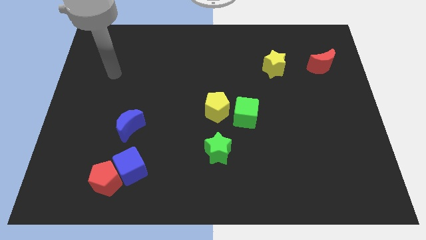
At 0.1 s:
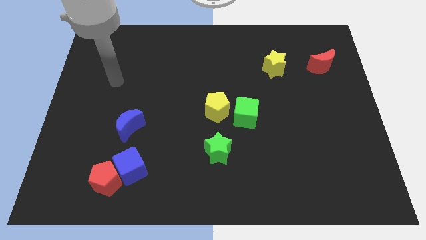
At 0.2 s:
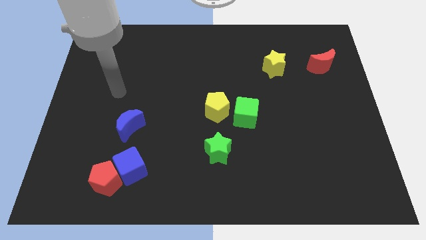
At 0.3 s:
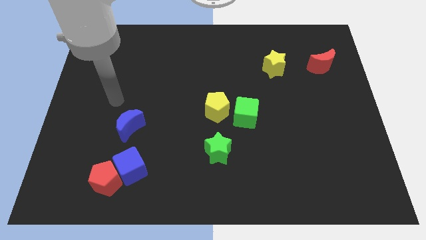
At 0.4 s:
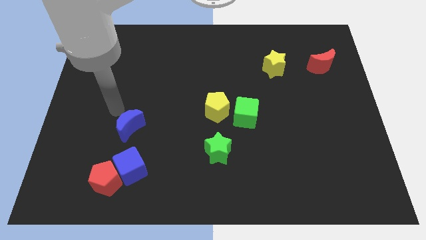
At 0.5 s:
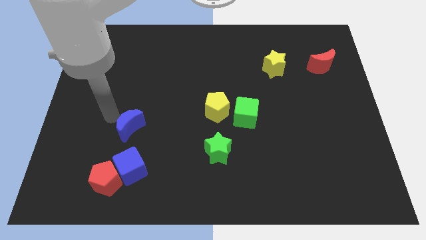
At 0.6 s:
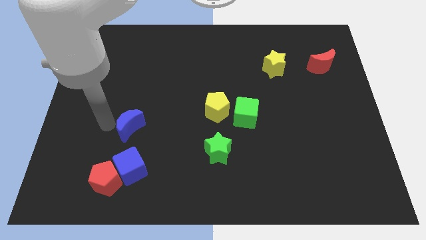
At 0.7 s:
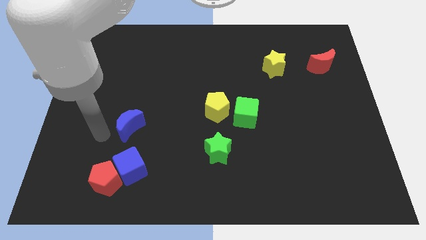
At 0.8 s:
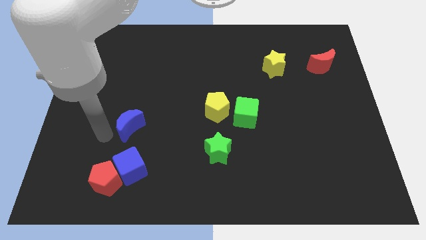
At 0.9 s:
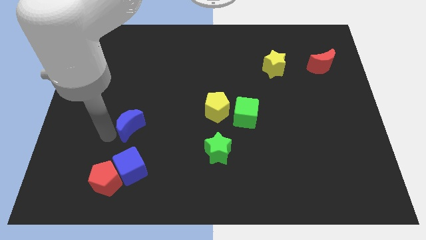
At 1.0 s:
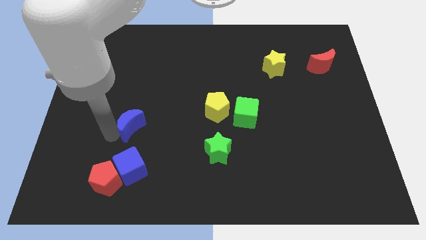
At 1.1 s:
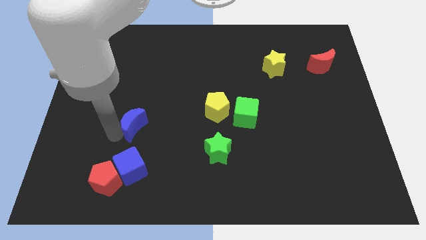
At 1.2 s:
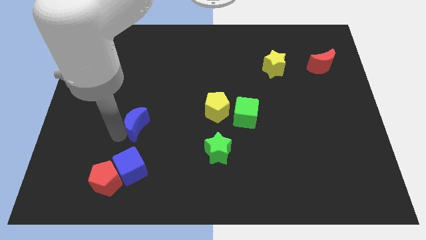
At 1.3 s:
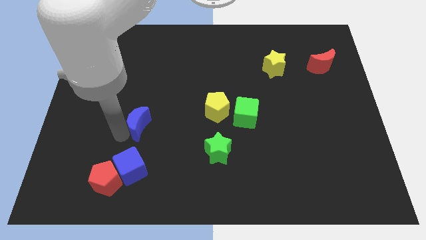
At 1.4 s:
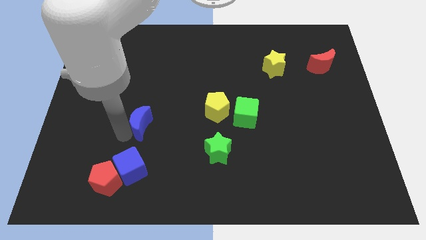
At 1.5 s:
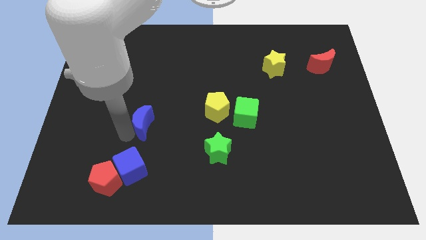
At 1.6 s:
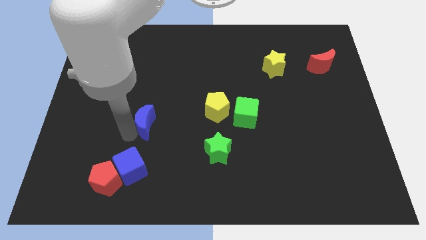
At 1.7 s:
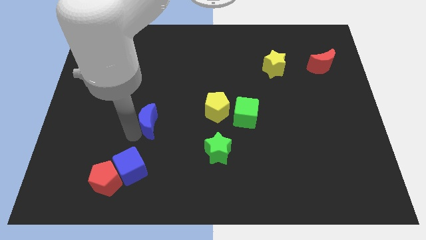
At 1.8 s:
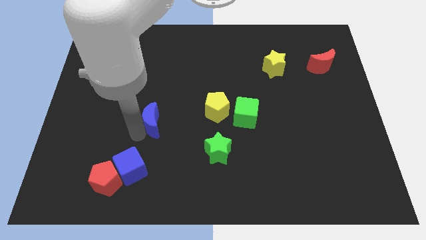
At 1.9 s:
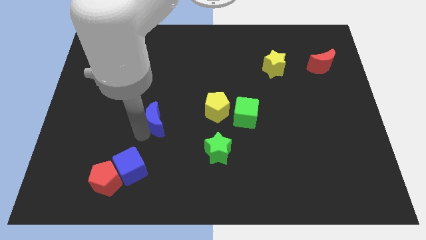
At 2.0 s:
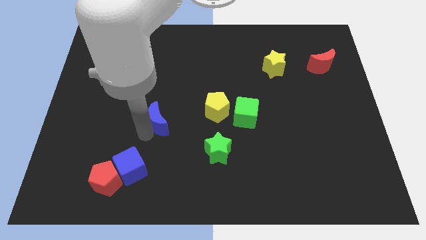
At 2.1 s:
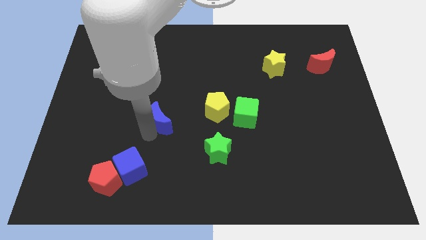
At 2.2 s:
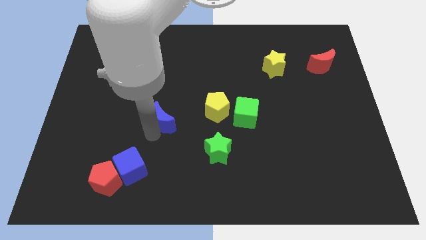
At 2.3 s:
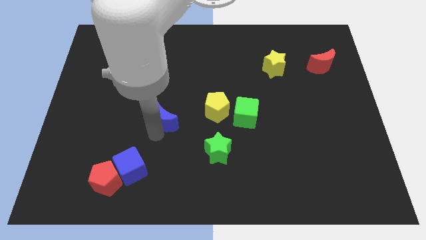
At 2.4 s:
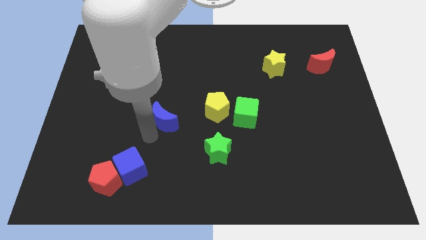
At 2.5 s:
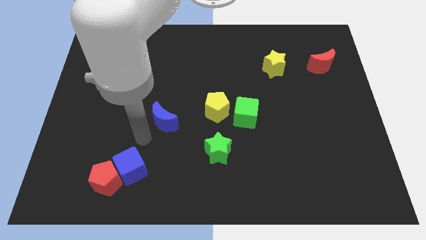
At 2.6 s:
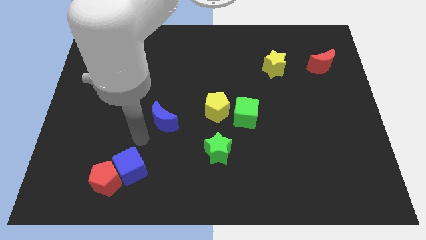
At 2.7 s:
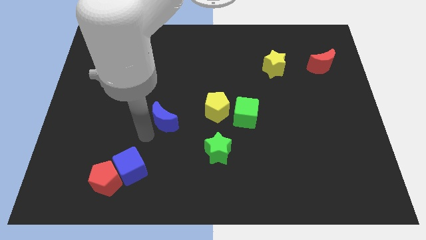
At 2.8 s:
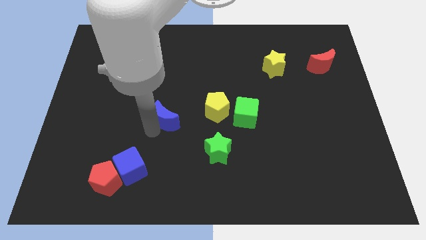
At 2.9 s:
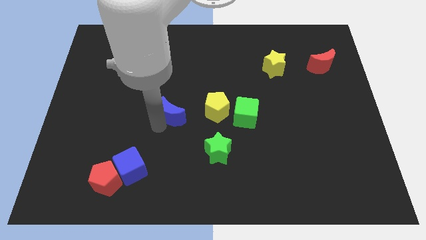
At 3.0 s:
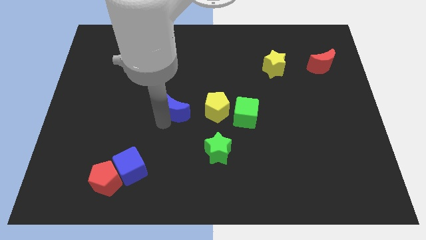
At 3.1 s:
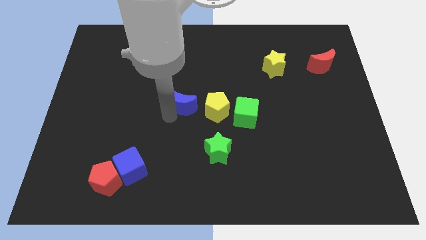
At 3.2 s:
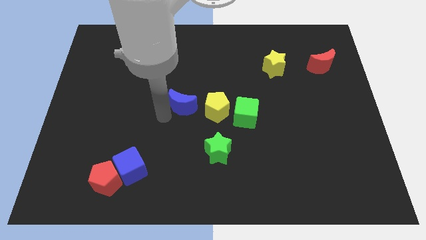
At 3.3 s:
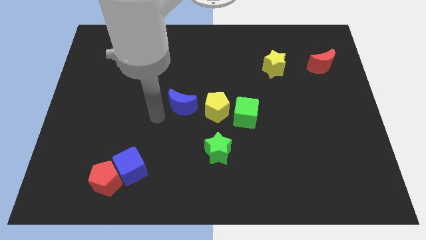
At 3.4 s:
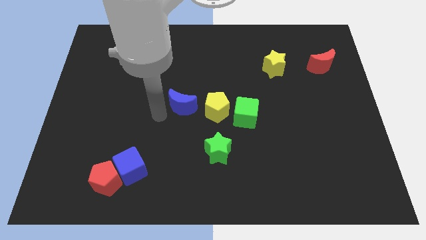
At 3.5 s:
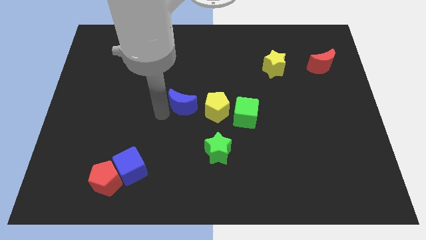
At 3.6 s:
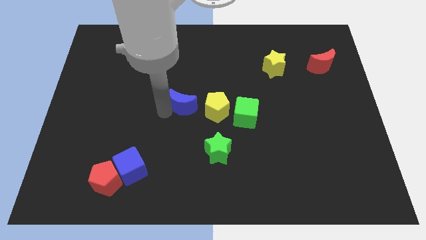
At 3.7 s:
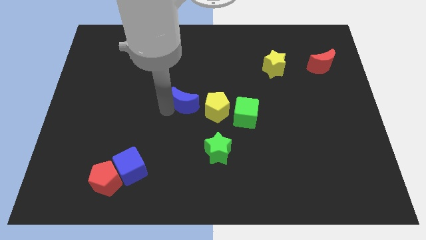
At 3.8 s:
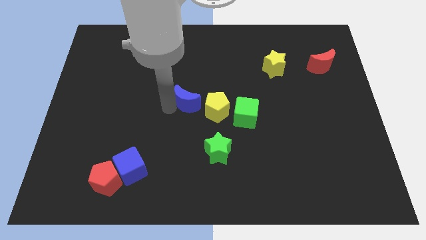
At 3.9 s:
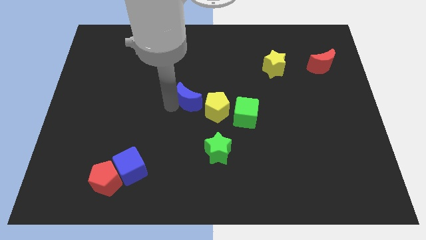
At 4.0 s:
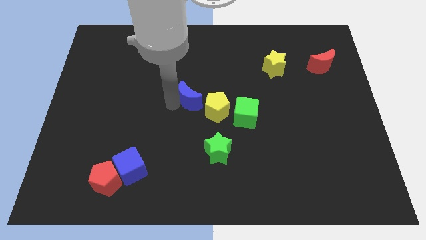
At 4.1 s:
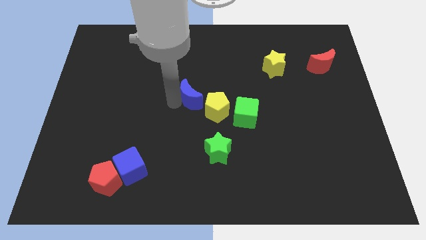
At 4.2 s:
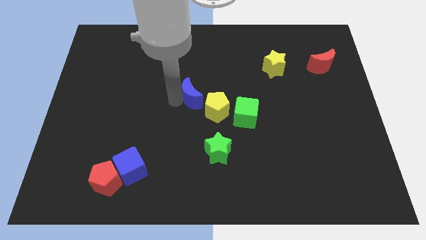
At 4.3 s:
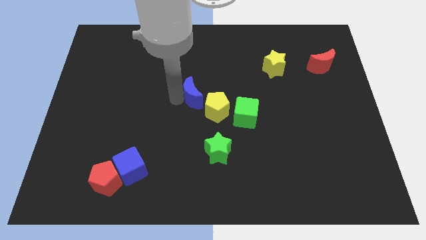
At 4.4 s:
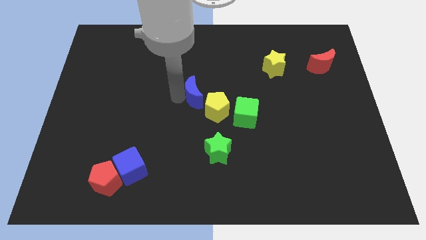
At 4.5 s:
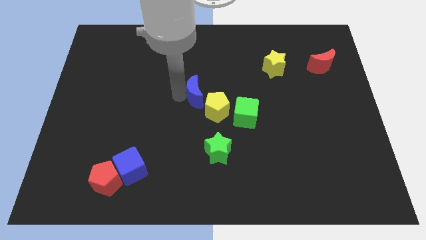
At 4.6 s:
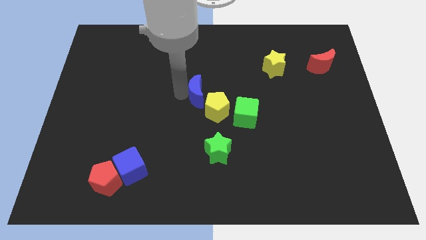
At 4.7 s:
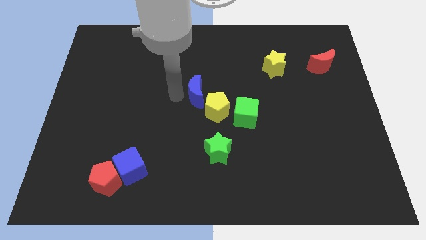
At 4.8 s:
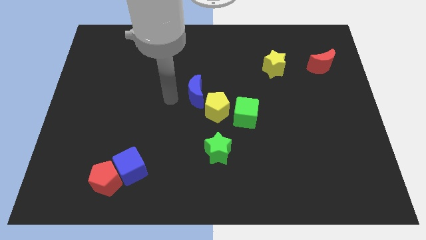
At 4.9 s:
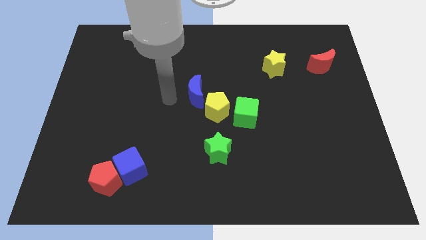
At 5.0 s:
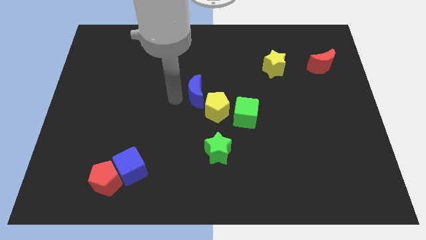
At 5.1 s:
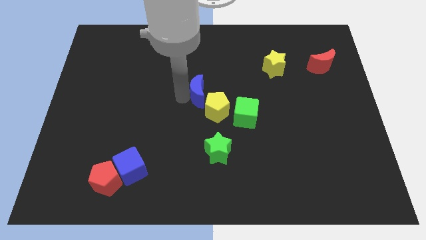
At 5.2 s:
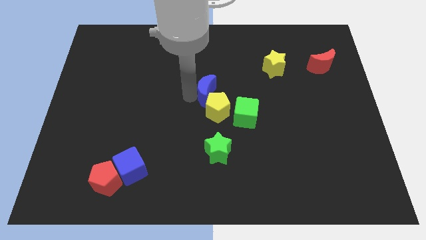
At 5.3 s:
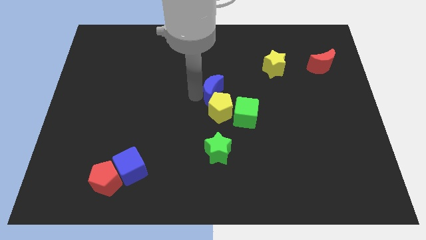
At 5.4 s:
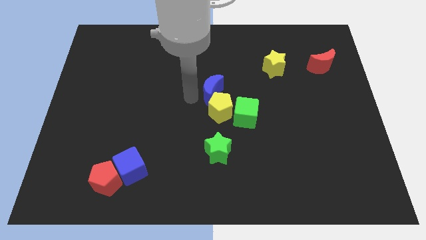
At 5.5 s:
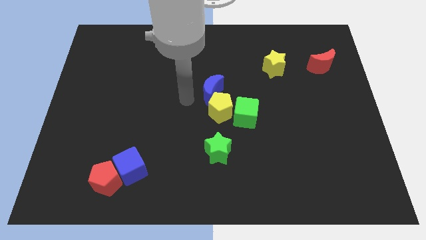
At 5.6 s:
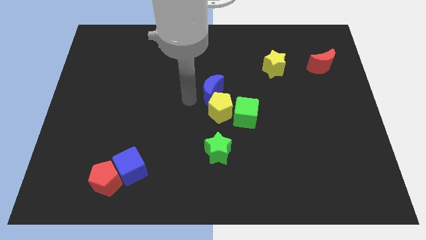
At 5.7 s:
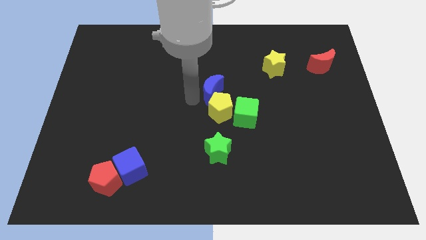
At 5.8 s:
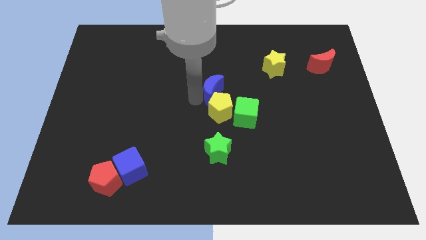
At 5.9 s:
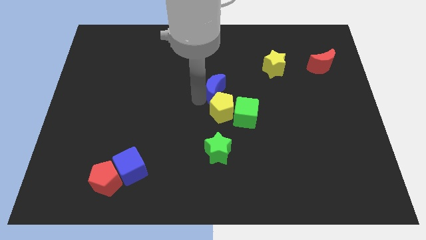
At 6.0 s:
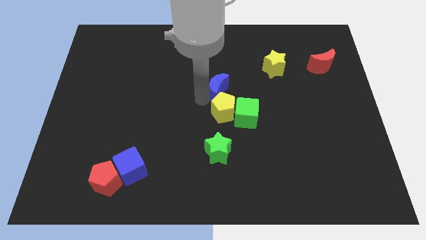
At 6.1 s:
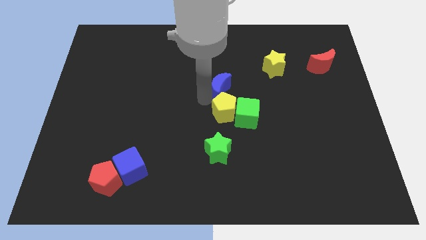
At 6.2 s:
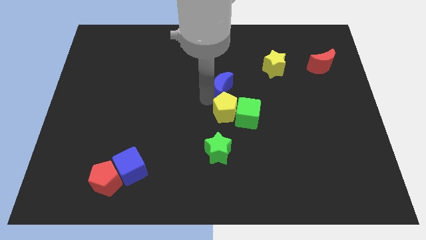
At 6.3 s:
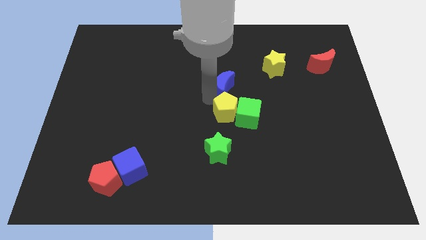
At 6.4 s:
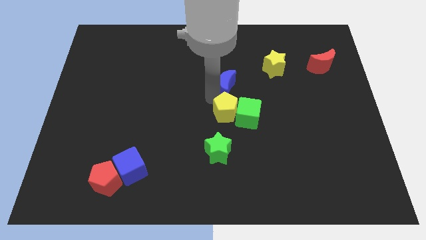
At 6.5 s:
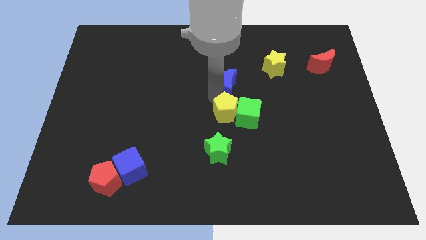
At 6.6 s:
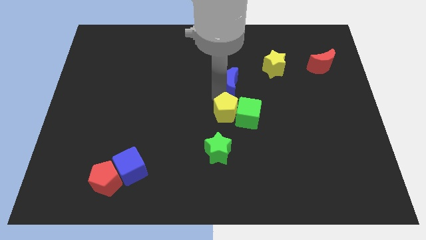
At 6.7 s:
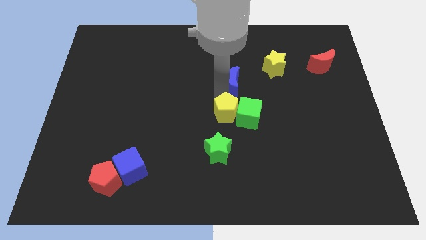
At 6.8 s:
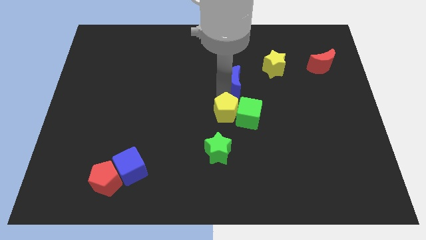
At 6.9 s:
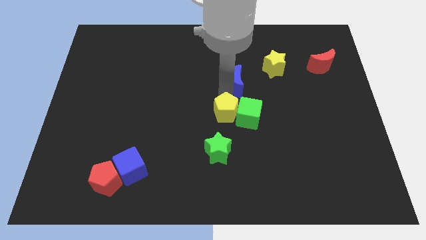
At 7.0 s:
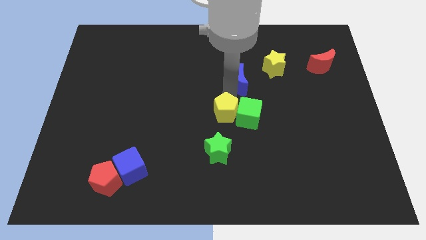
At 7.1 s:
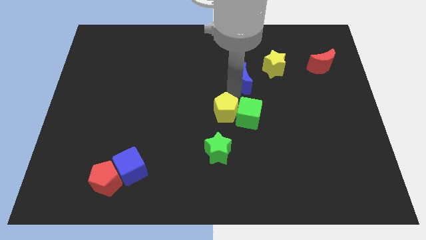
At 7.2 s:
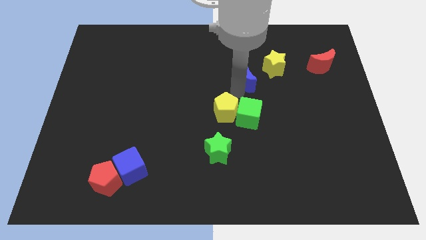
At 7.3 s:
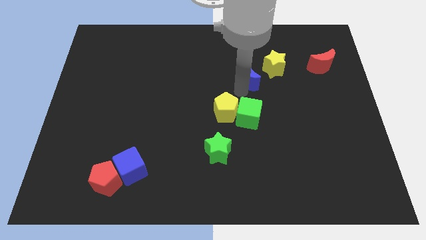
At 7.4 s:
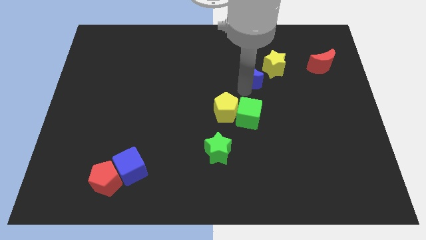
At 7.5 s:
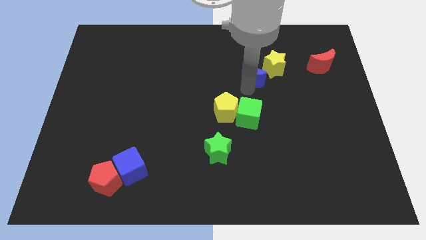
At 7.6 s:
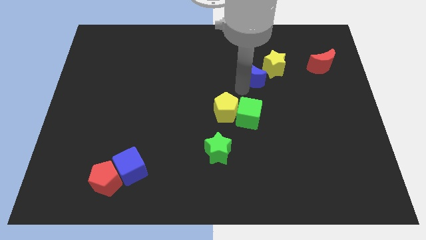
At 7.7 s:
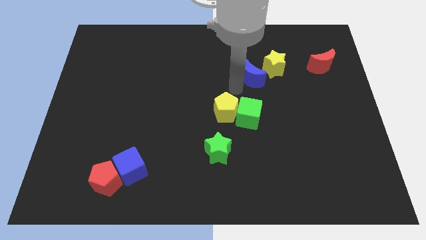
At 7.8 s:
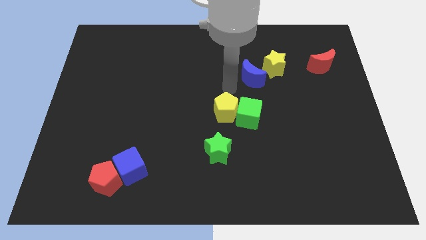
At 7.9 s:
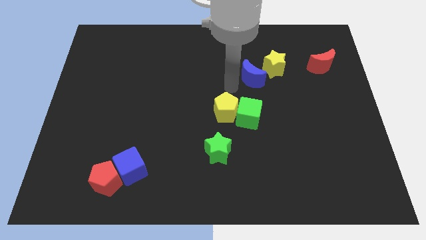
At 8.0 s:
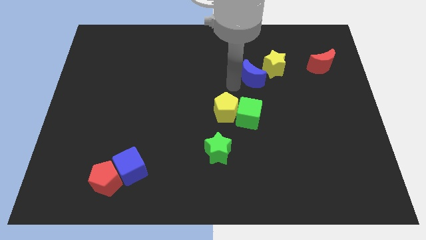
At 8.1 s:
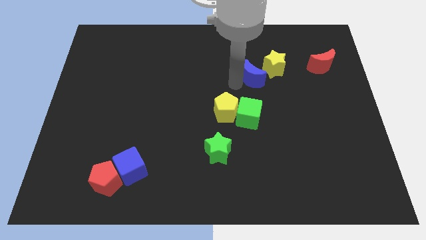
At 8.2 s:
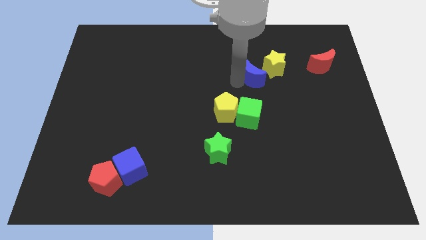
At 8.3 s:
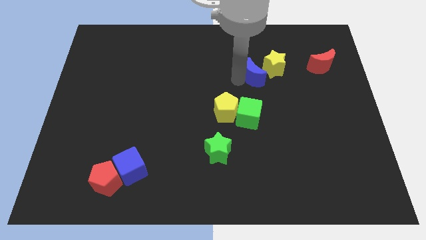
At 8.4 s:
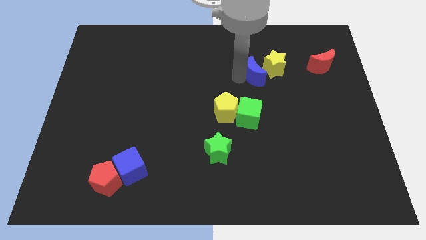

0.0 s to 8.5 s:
put the blue moon close to the yellow star
